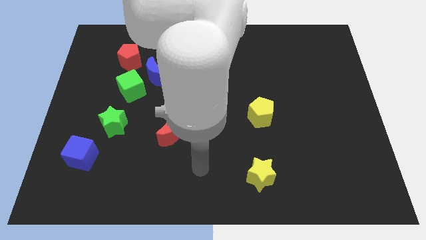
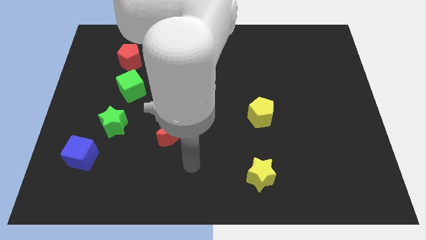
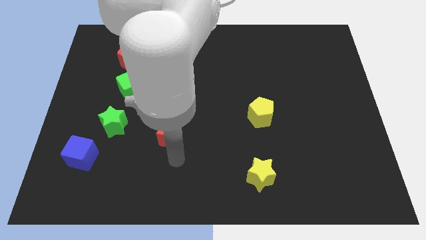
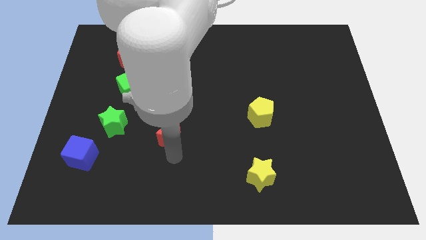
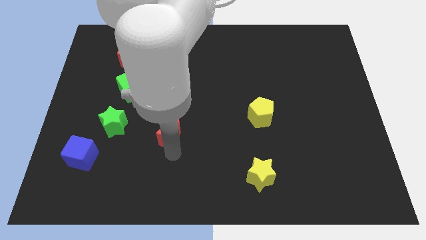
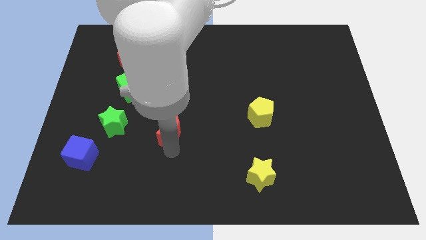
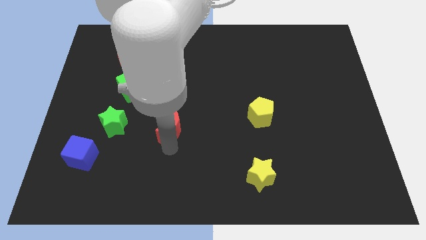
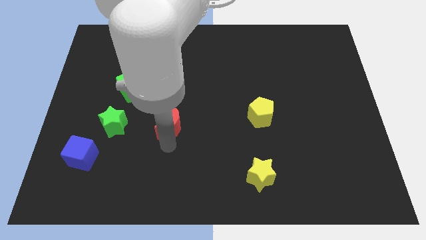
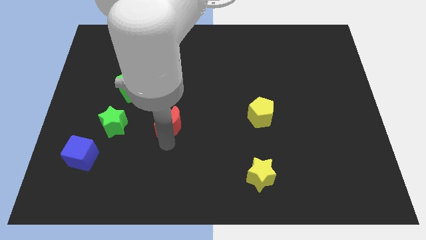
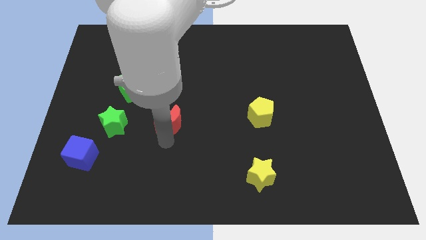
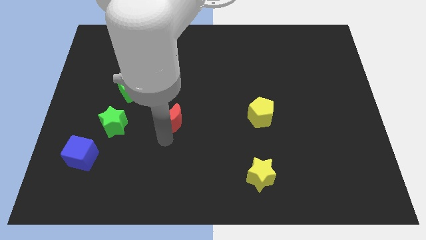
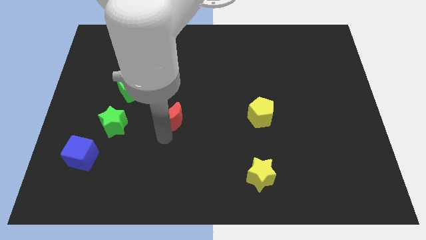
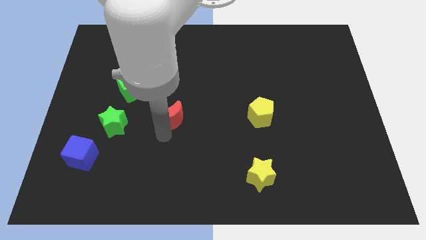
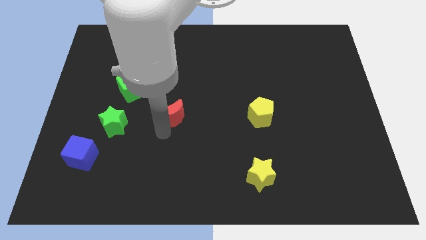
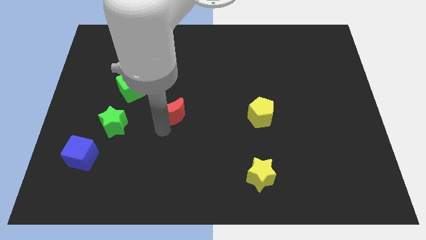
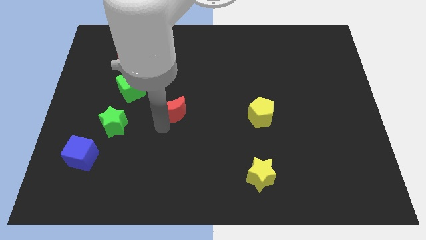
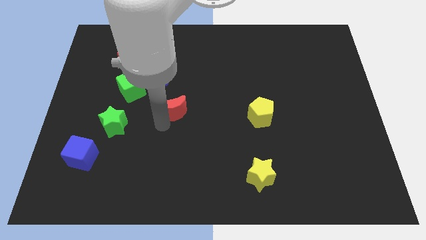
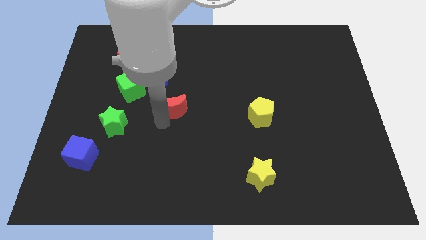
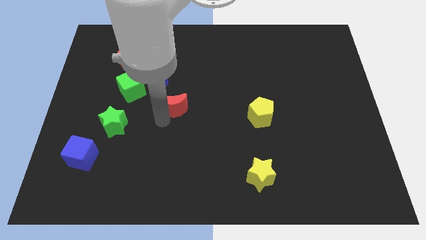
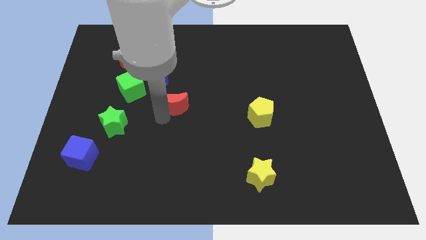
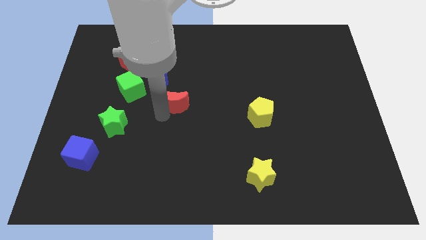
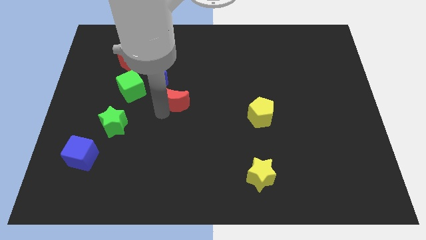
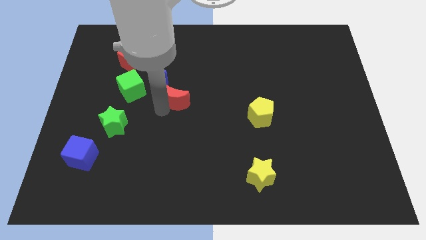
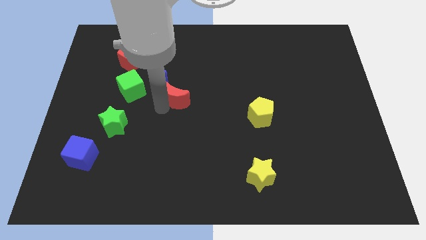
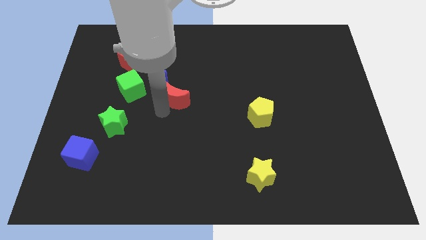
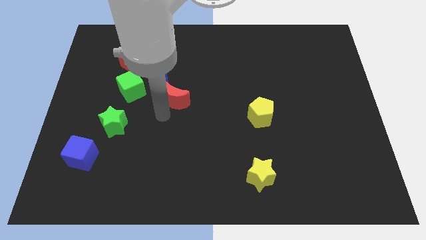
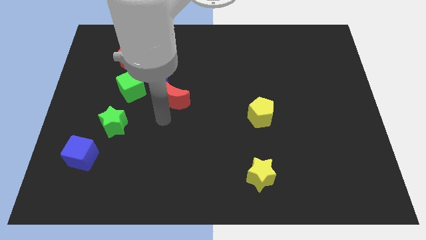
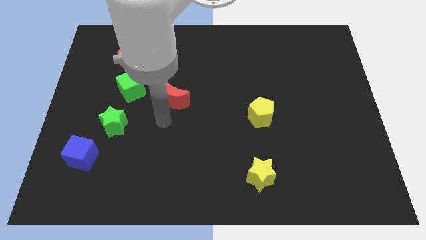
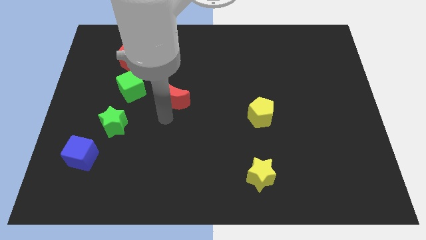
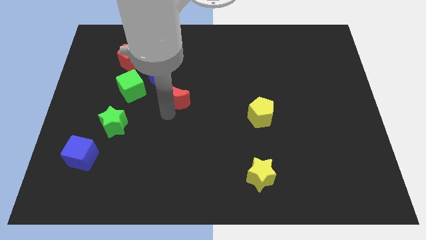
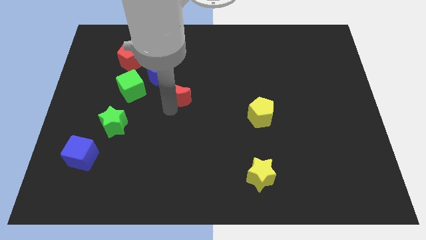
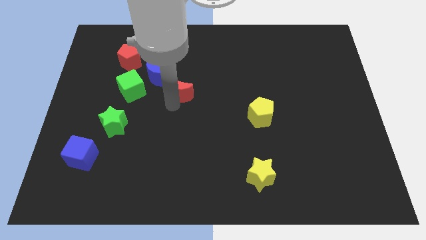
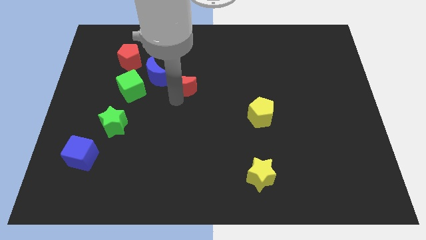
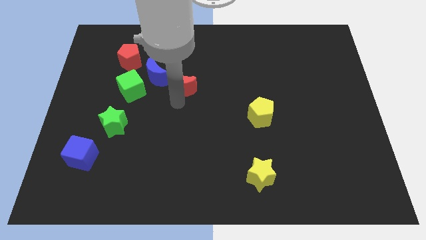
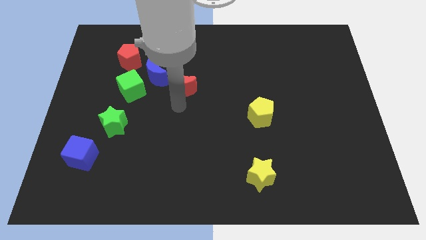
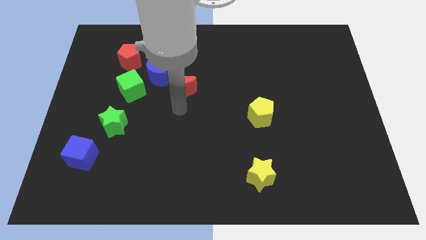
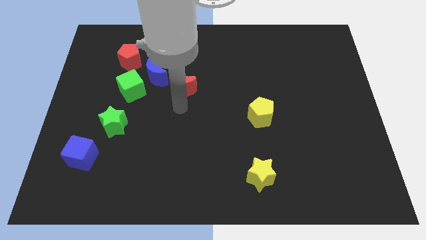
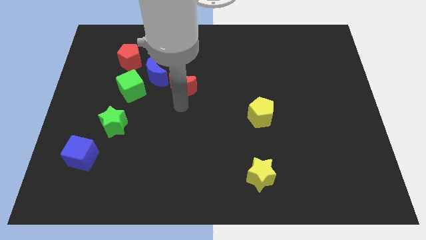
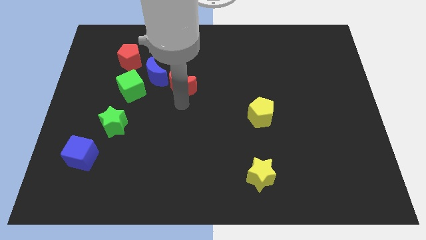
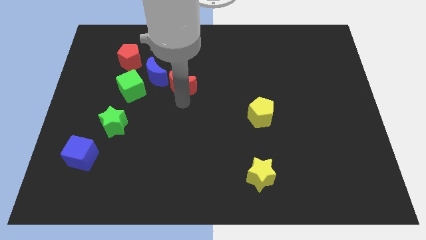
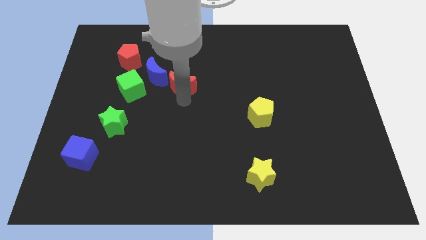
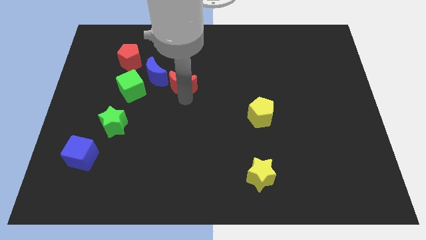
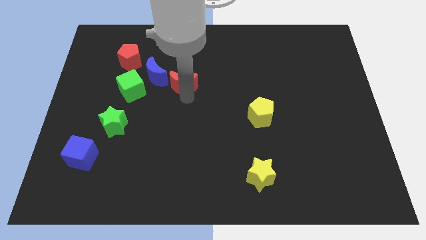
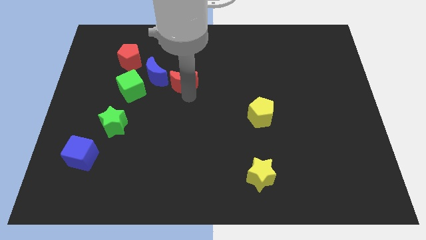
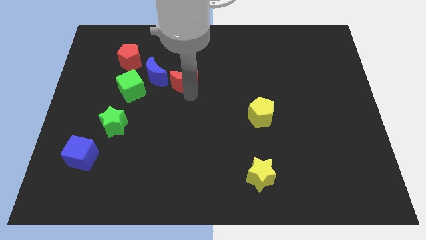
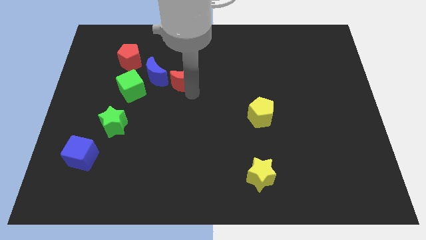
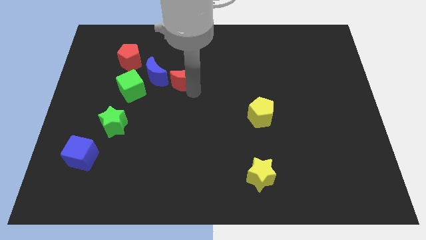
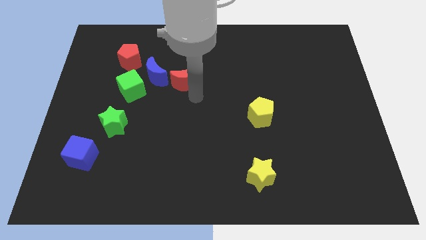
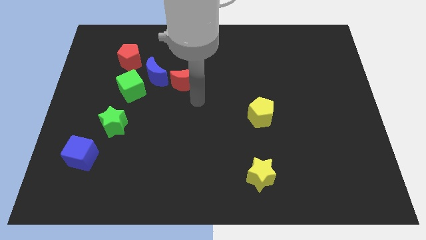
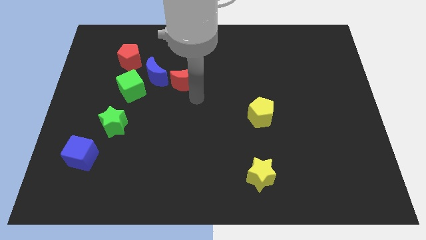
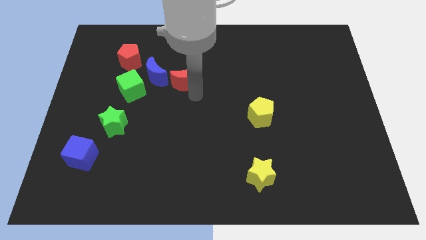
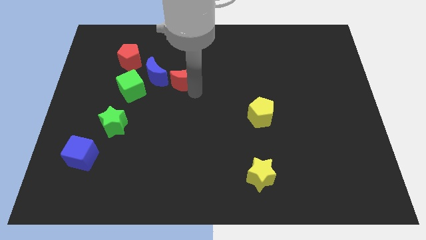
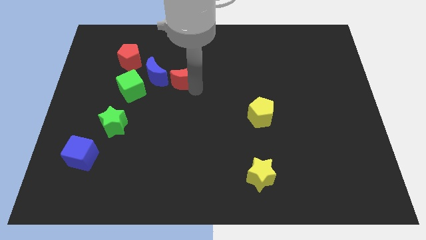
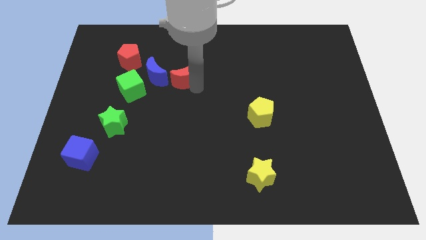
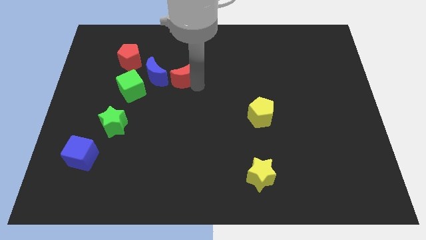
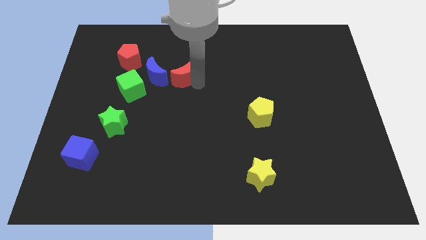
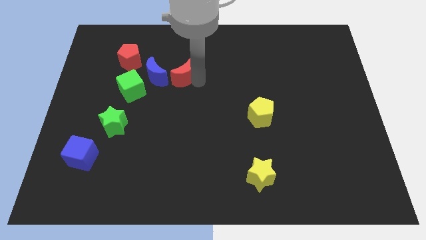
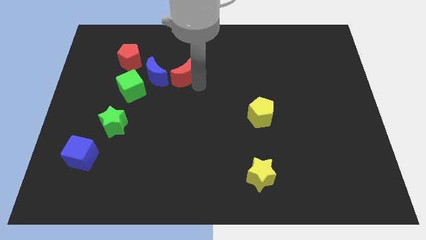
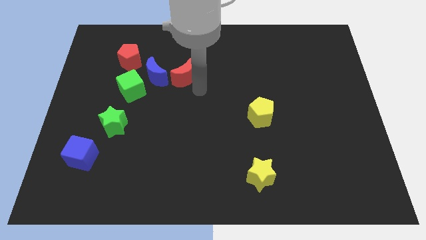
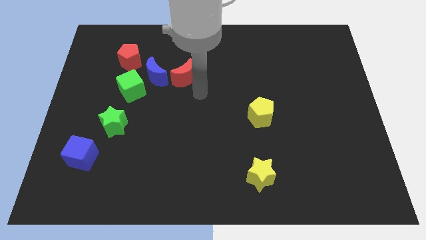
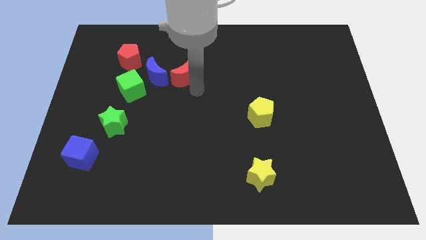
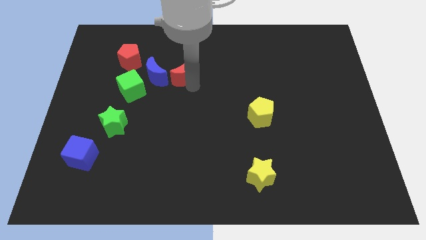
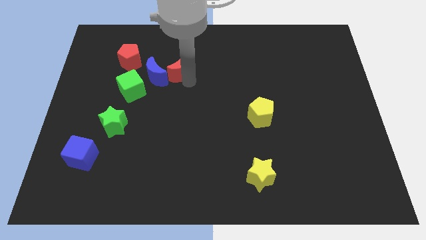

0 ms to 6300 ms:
move the red moon right of the red pentagon

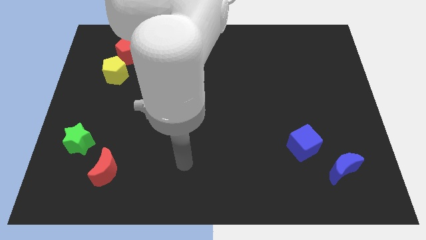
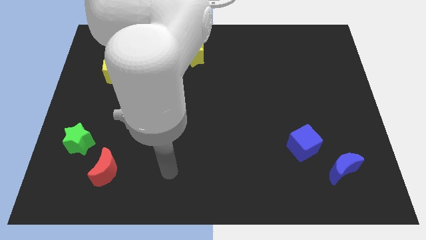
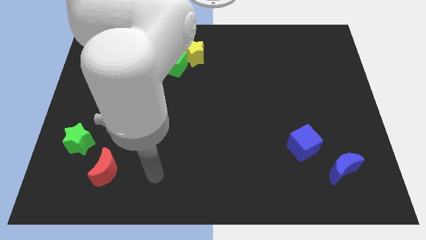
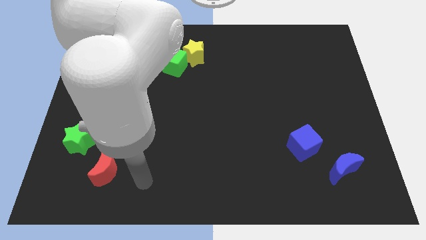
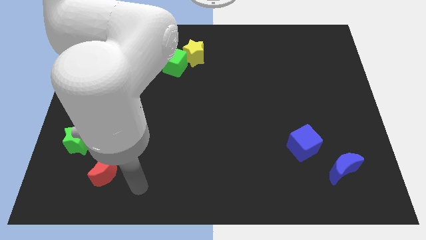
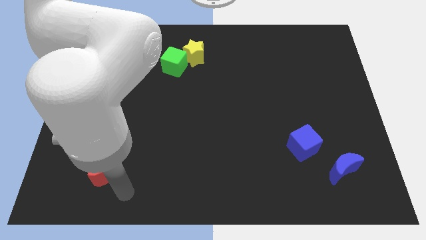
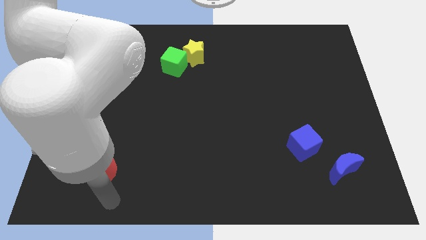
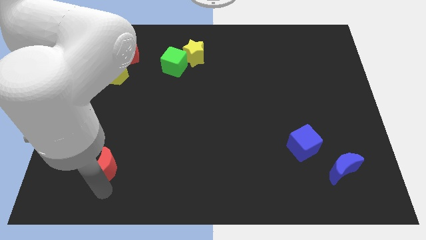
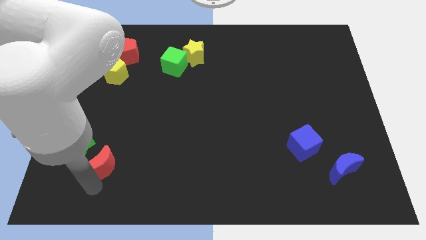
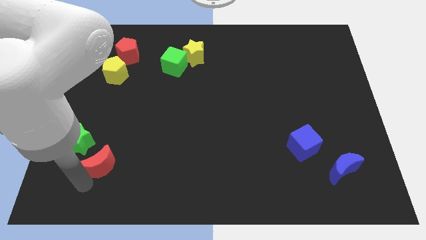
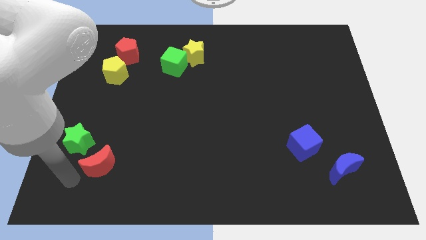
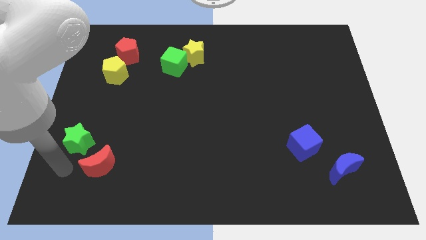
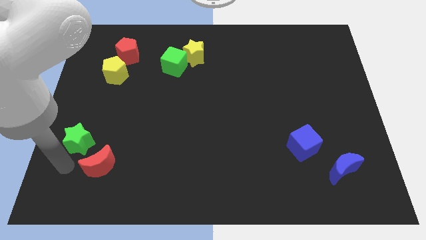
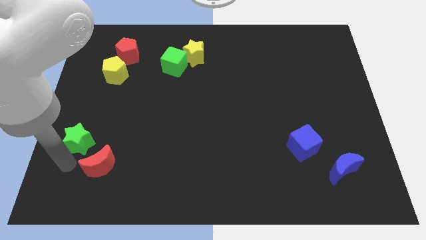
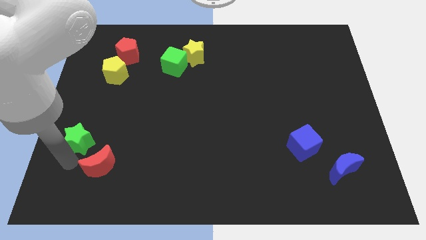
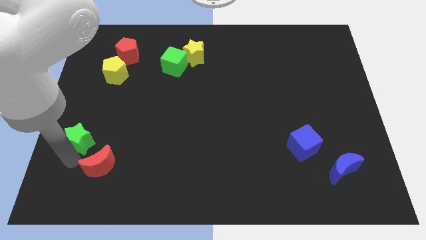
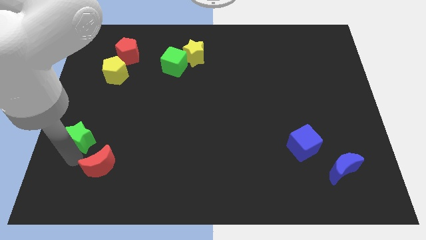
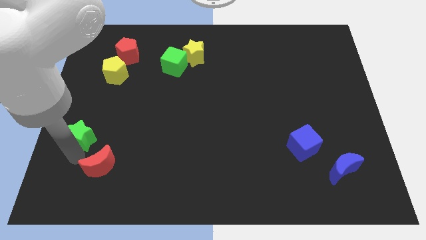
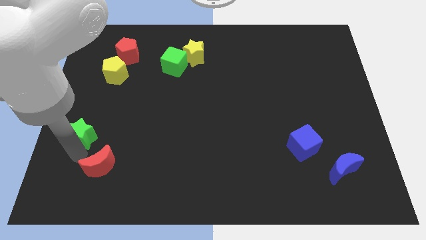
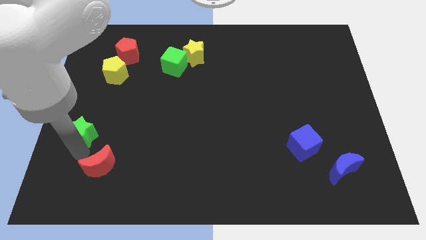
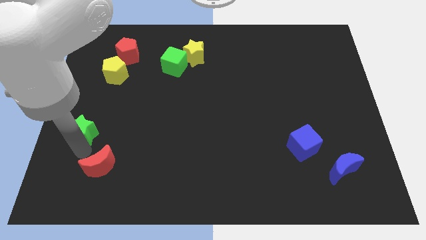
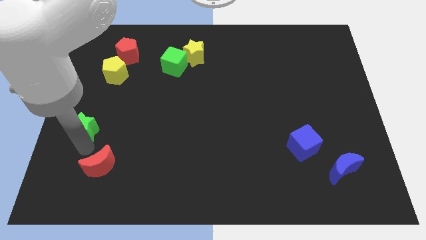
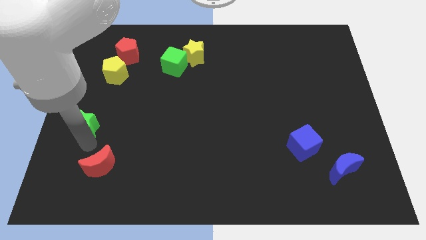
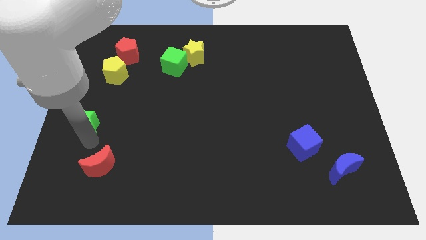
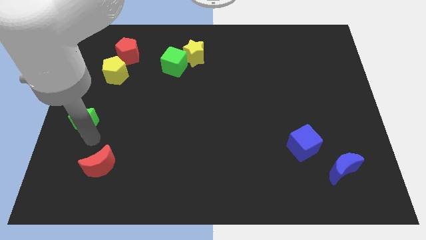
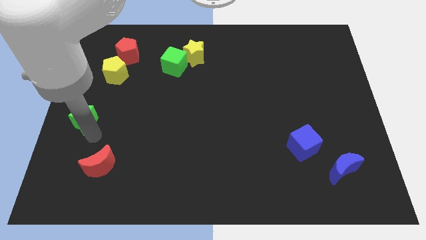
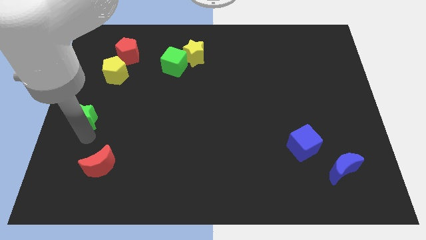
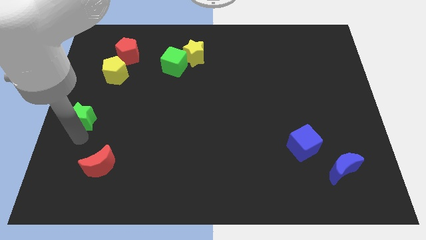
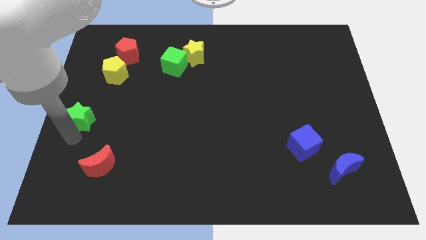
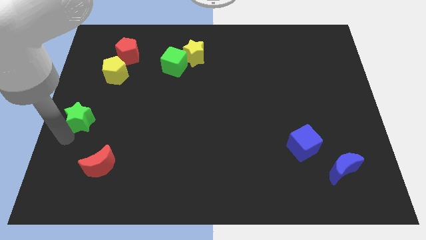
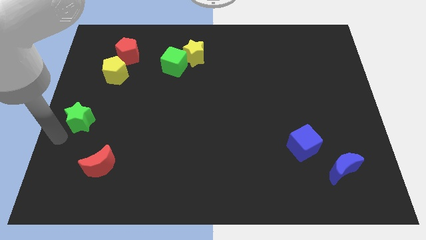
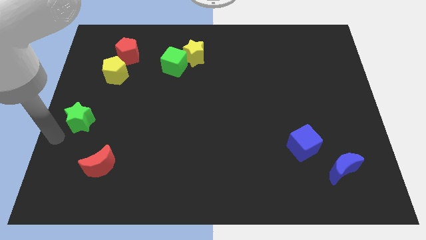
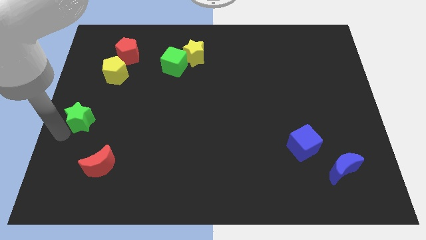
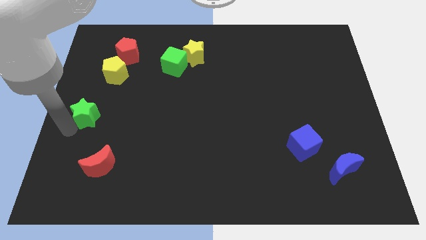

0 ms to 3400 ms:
slide the green star below the yellow pentagon
